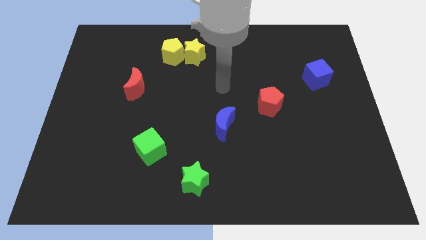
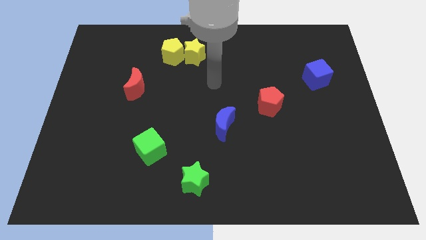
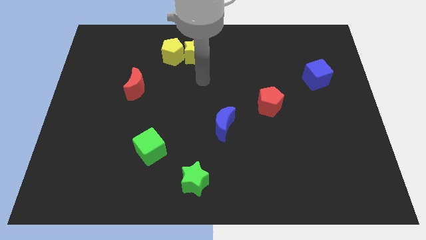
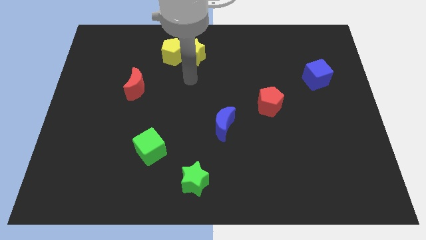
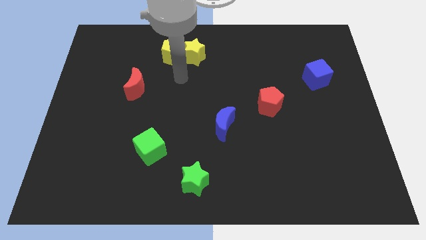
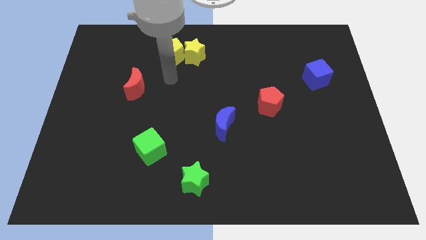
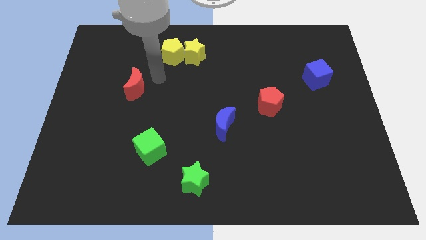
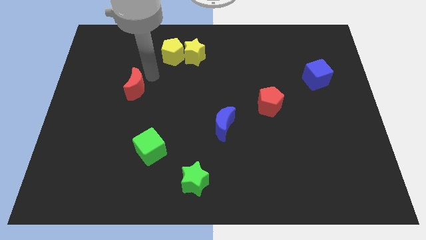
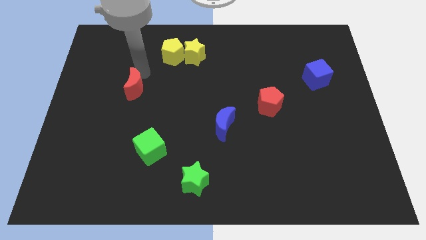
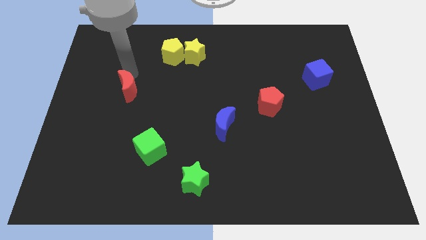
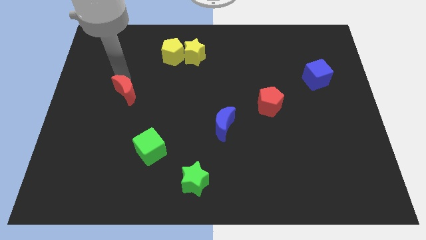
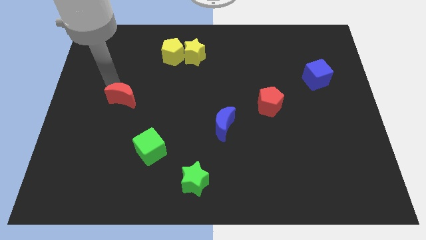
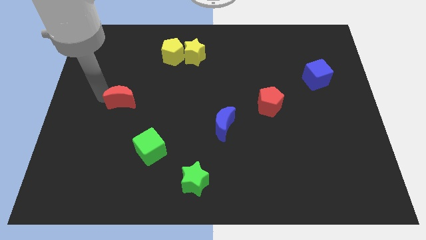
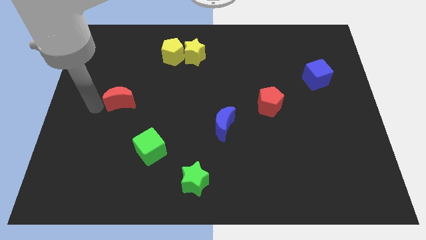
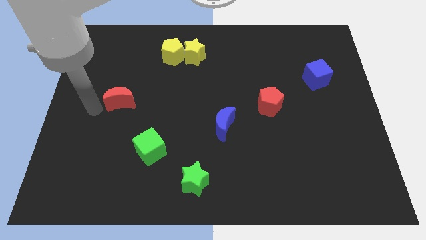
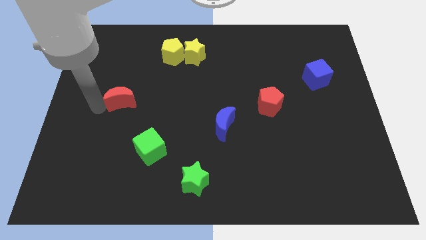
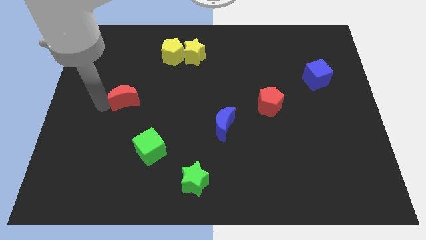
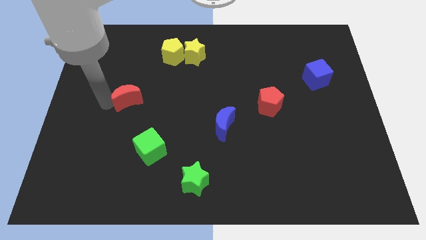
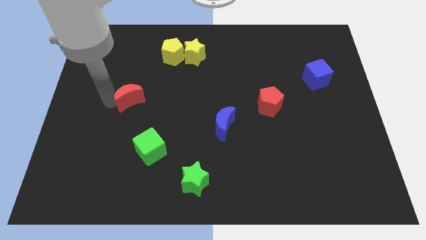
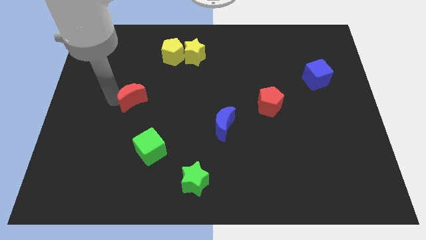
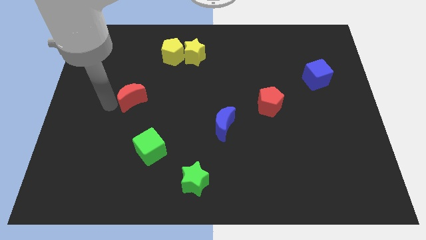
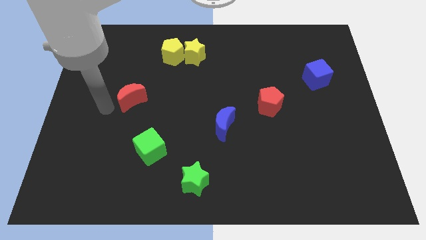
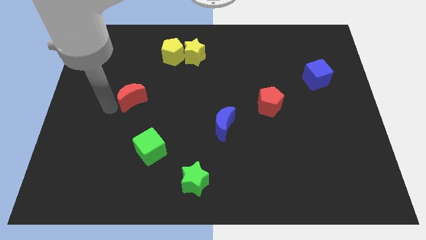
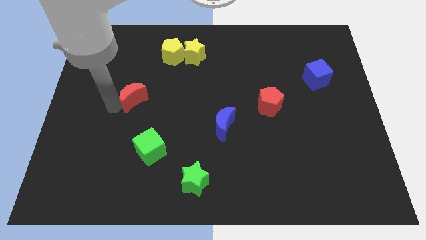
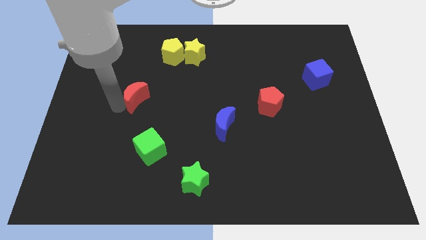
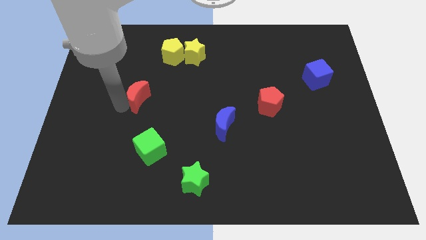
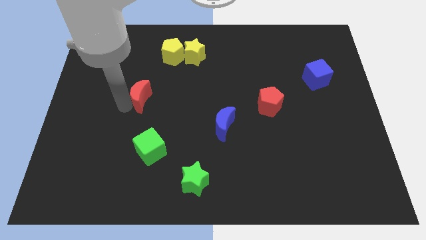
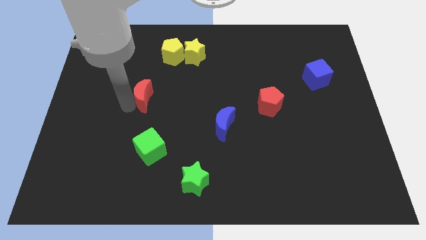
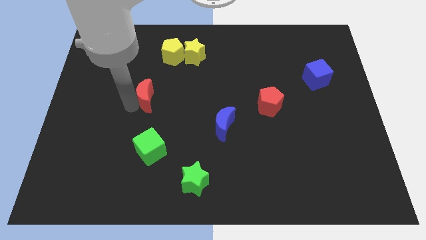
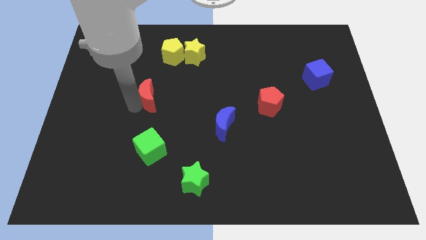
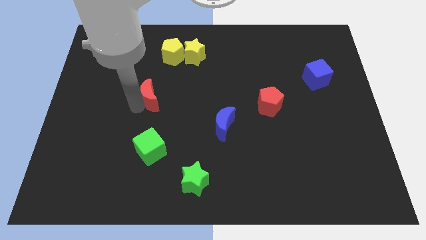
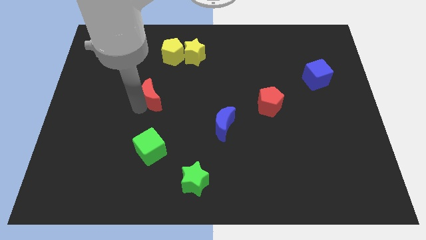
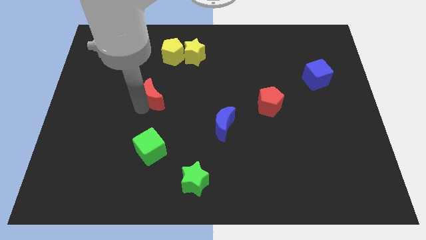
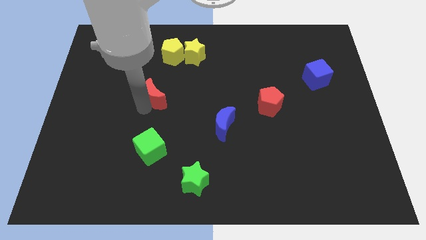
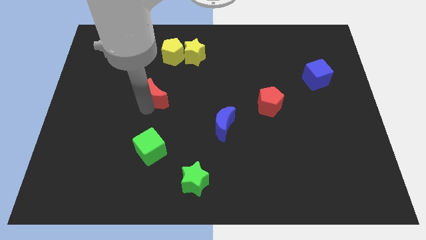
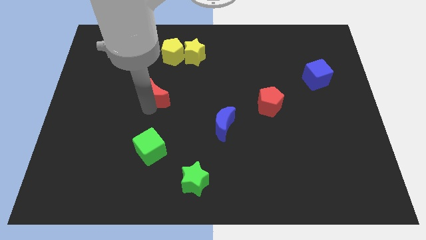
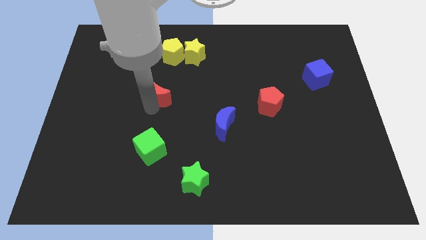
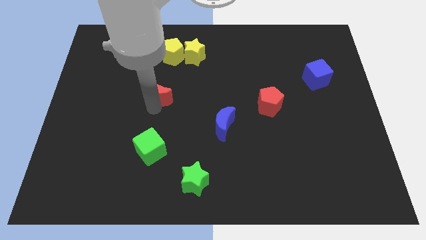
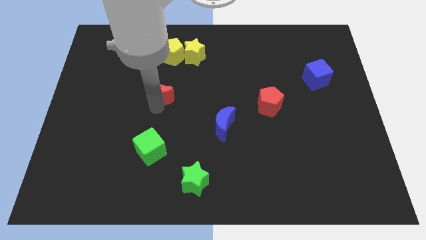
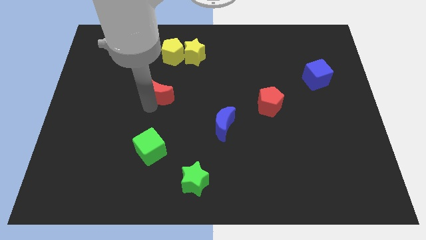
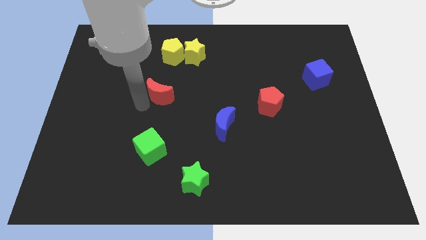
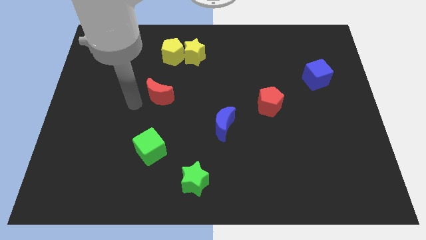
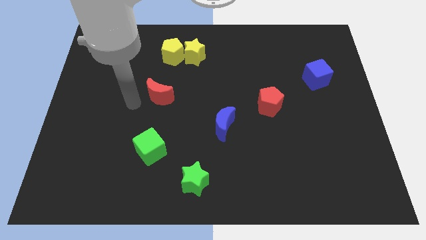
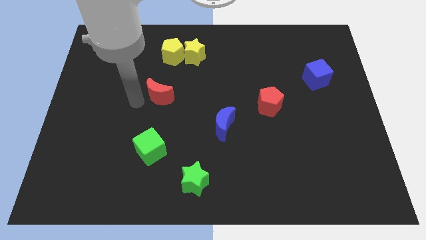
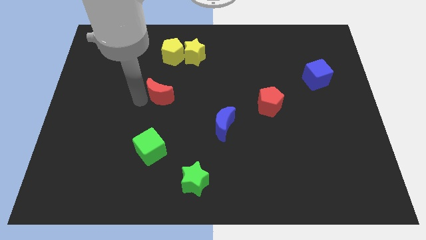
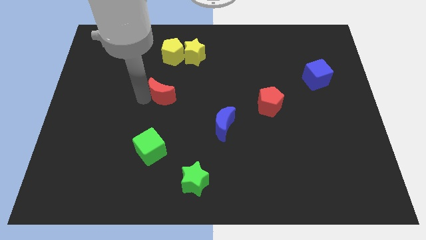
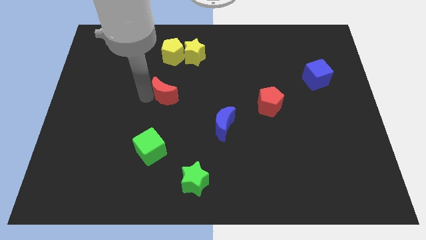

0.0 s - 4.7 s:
move the red moon right somewhat

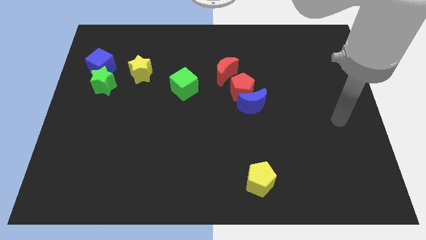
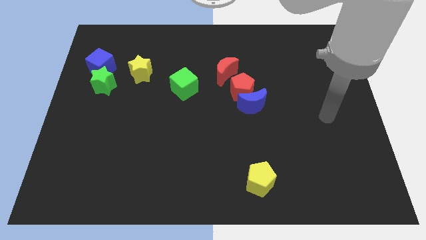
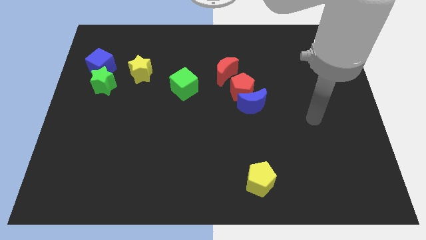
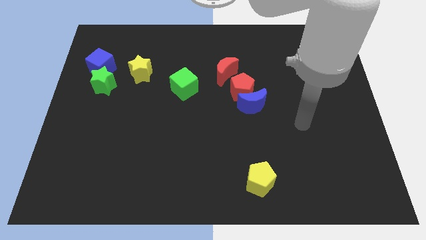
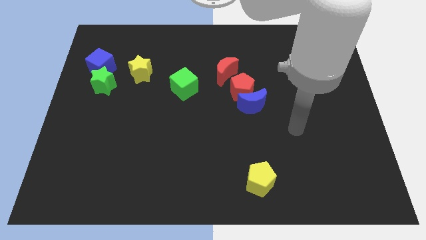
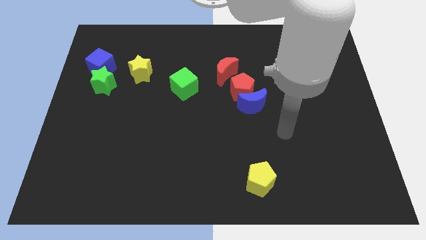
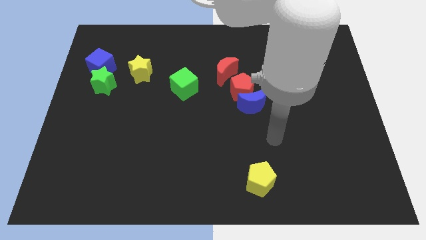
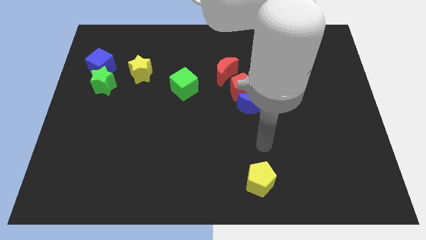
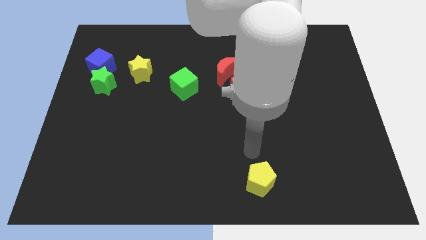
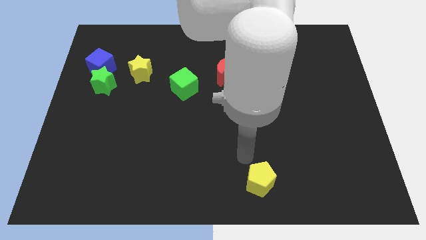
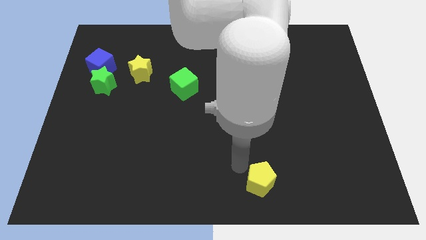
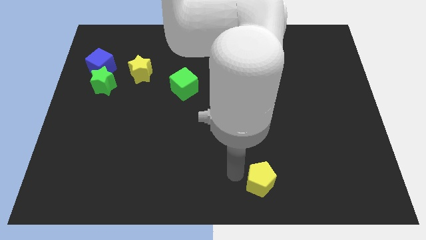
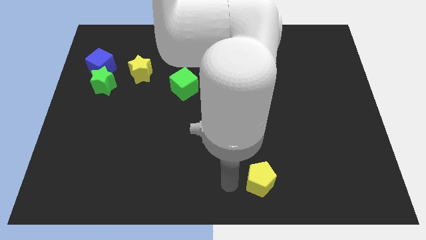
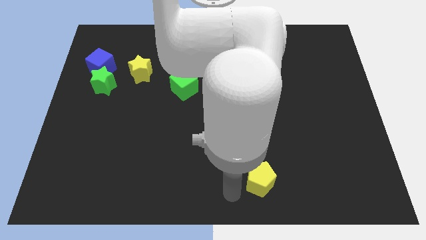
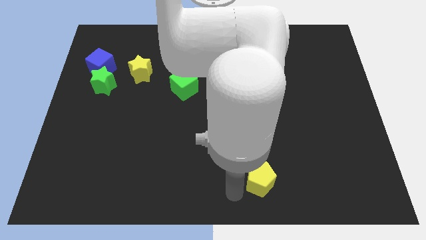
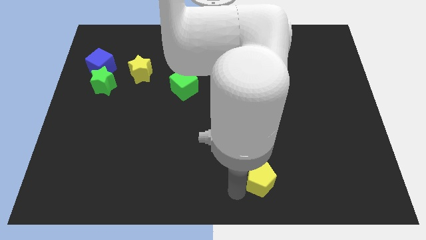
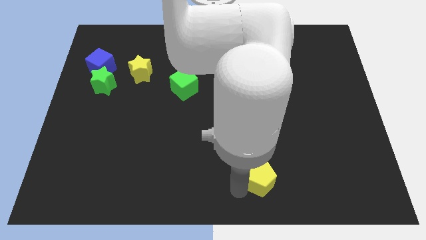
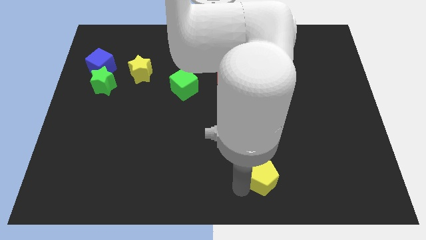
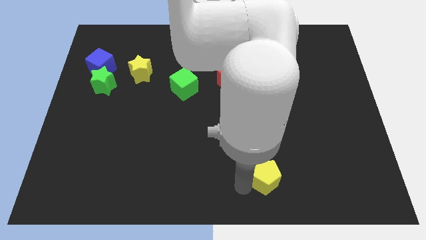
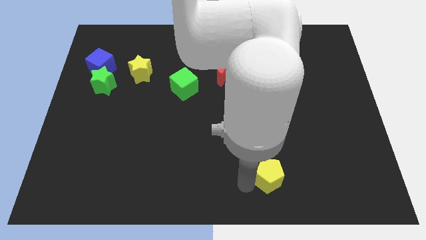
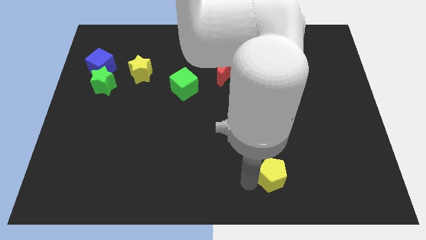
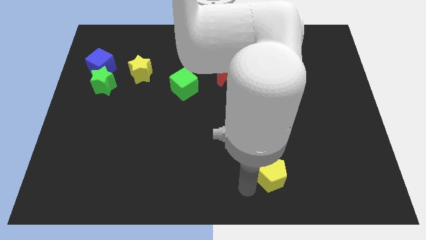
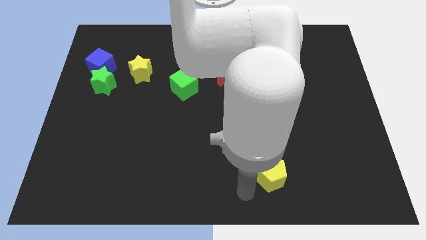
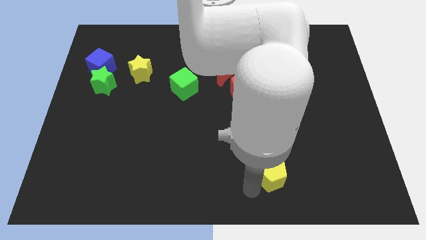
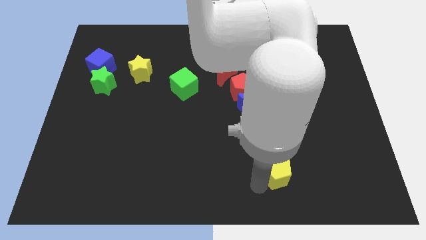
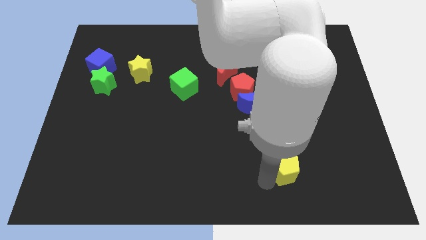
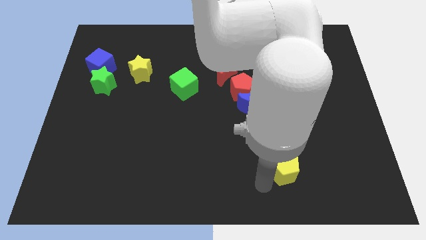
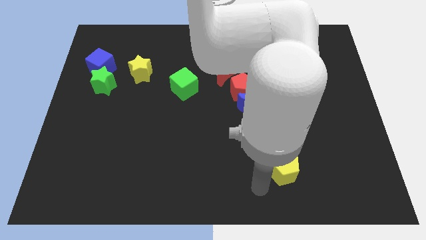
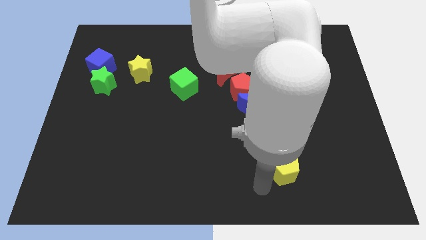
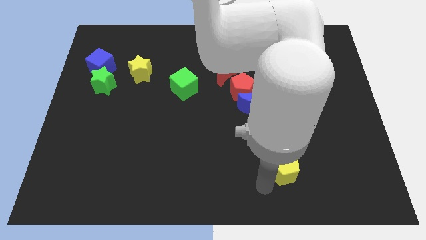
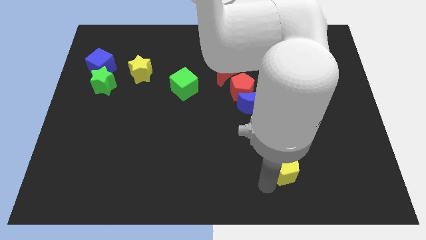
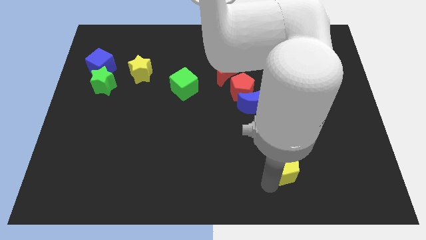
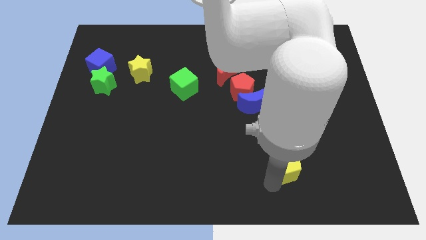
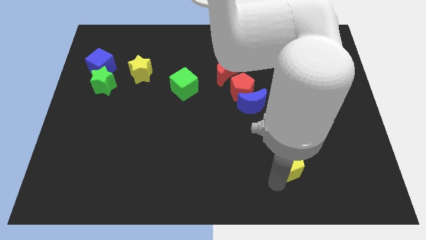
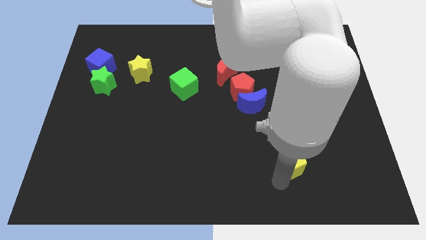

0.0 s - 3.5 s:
move the yellow pentagon slightly upwards and then to the right

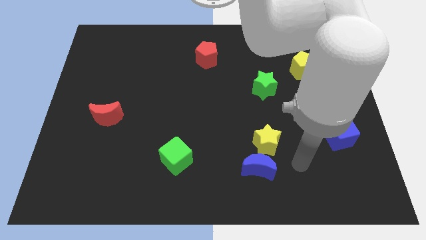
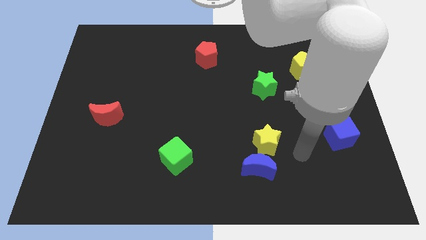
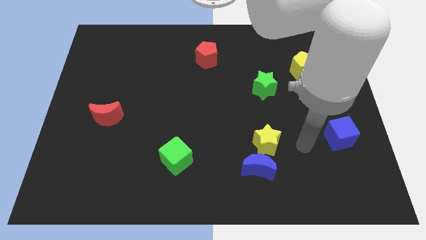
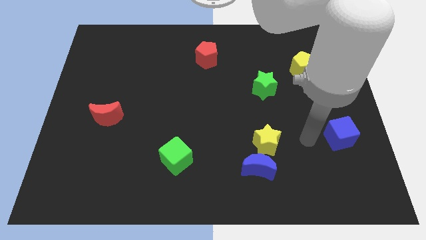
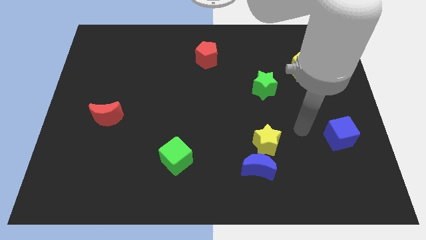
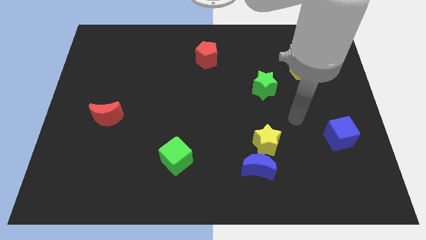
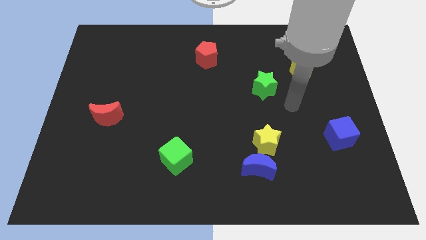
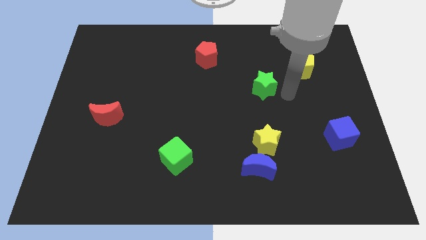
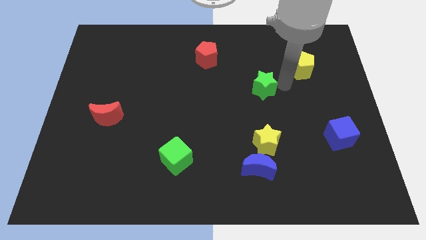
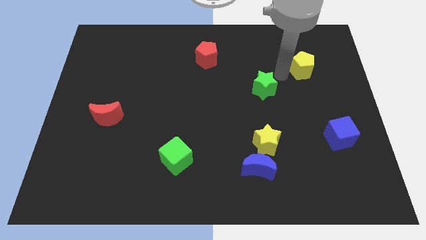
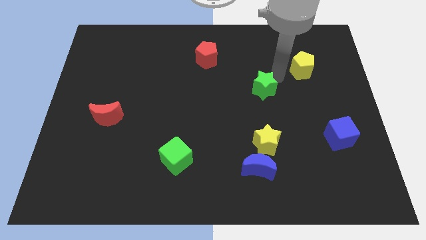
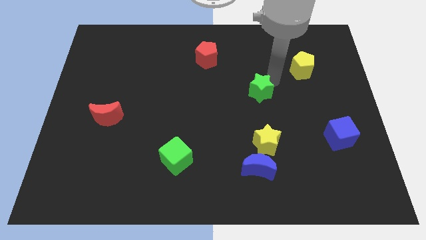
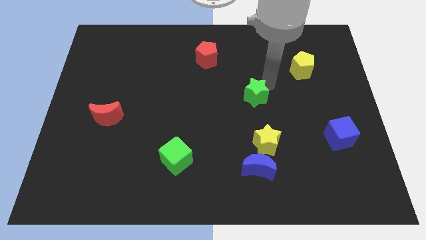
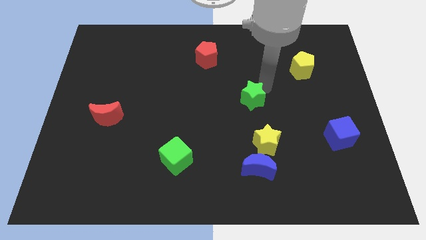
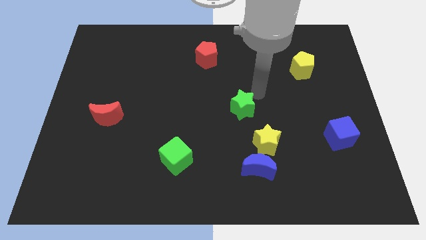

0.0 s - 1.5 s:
slide the green star down and to the left slightly
